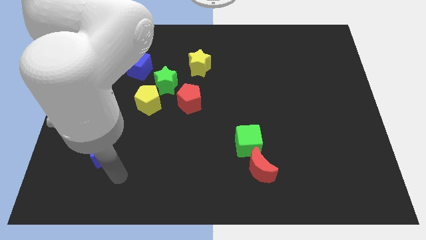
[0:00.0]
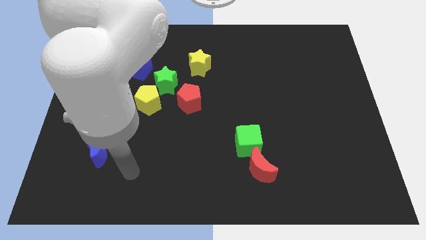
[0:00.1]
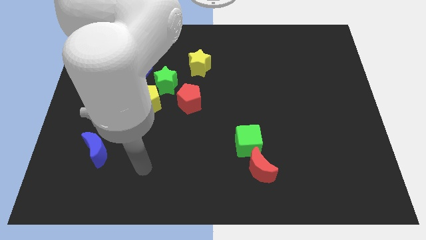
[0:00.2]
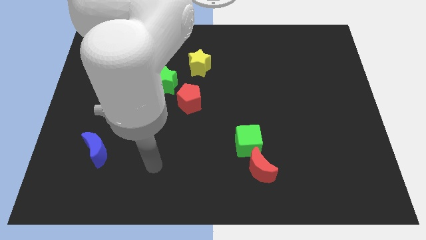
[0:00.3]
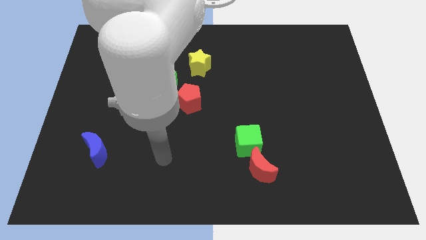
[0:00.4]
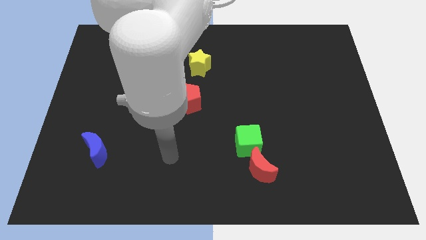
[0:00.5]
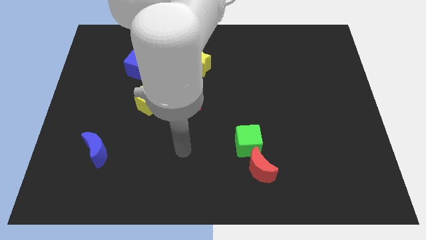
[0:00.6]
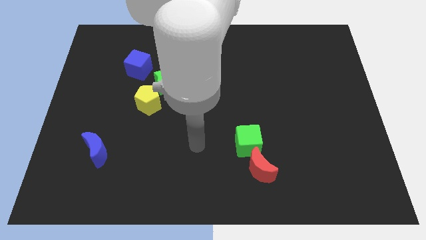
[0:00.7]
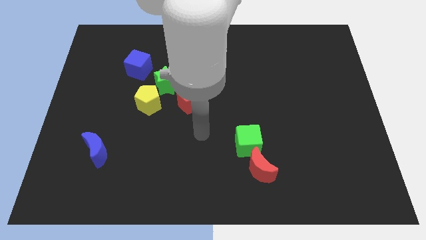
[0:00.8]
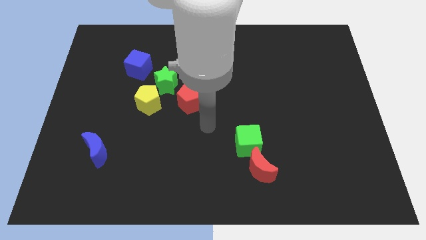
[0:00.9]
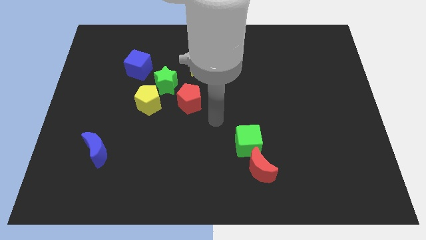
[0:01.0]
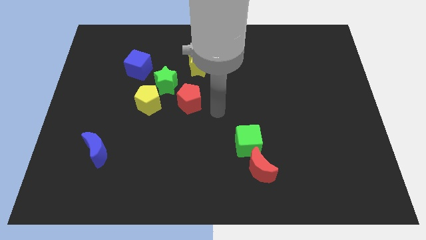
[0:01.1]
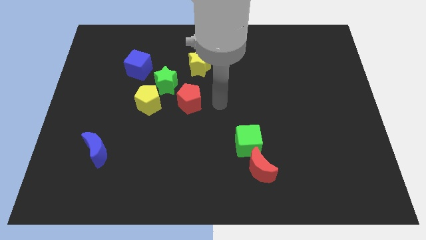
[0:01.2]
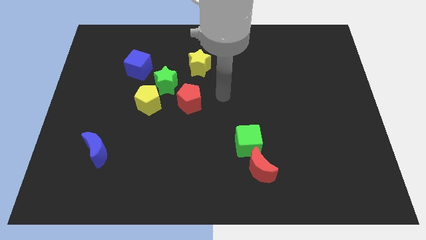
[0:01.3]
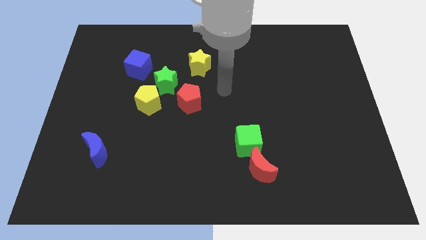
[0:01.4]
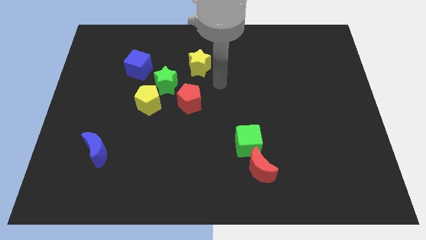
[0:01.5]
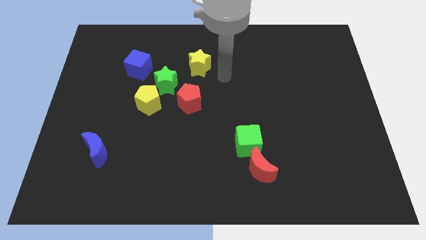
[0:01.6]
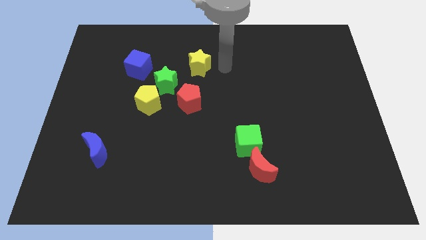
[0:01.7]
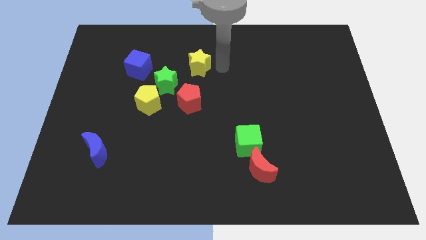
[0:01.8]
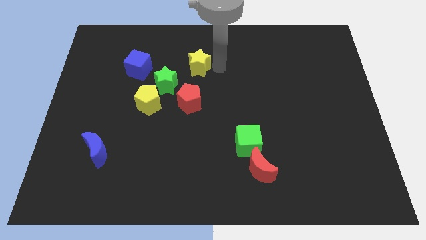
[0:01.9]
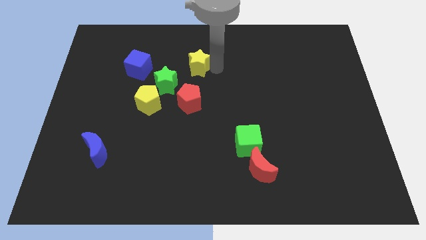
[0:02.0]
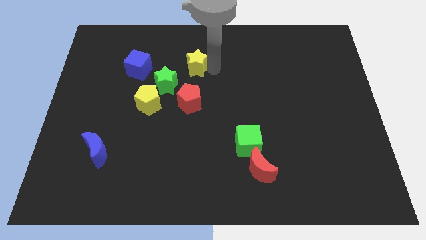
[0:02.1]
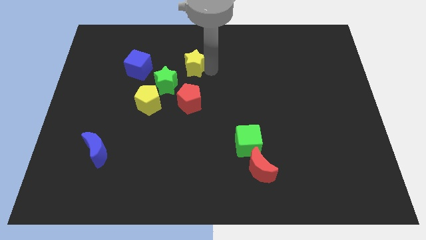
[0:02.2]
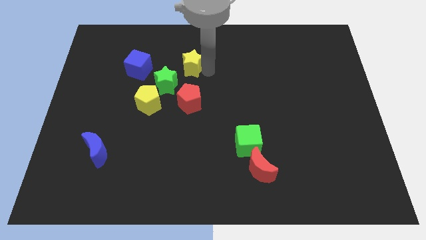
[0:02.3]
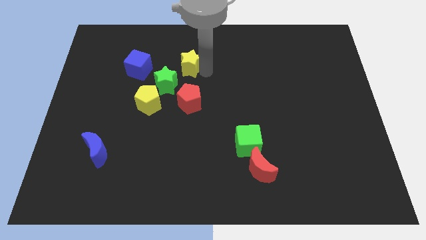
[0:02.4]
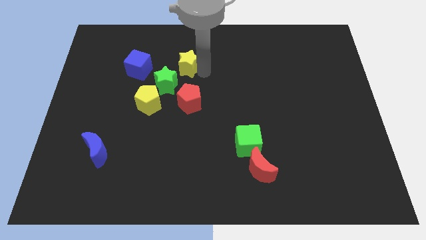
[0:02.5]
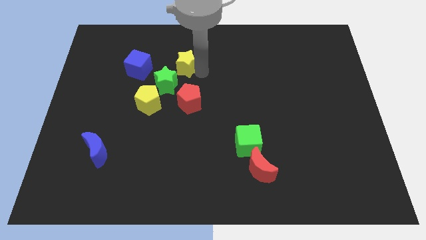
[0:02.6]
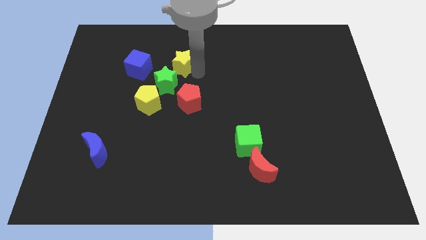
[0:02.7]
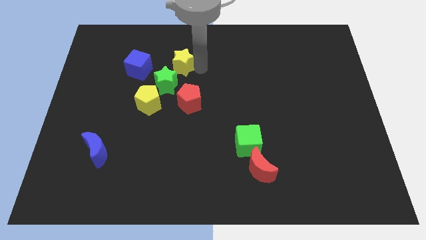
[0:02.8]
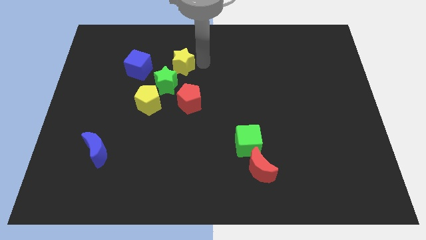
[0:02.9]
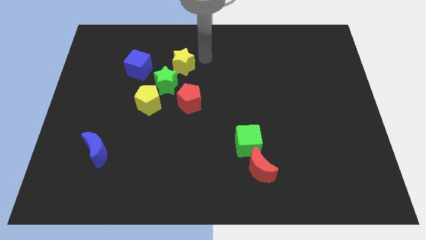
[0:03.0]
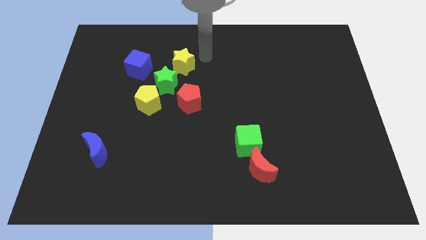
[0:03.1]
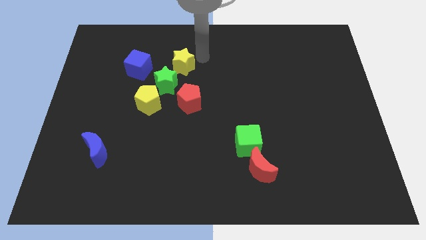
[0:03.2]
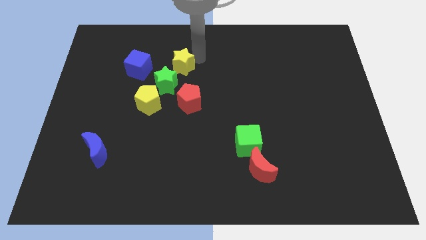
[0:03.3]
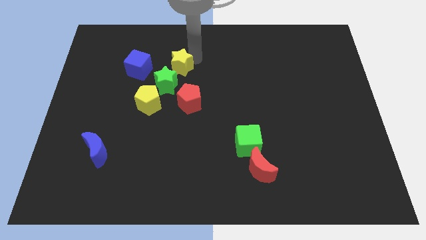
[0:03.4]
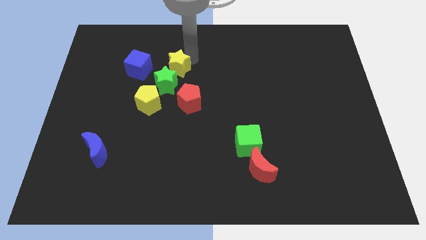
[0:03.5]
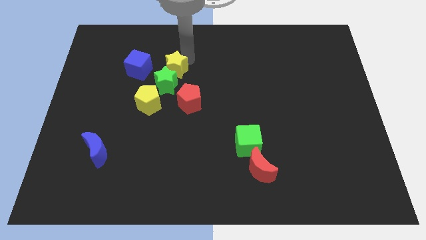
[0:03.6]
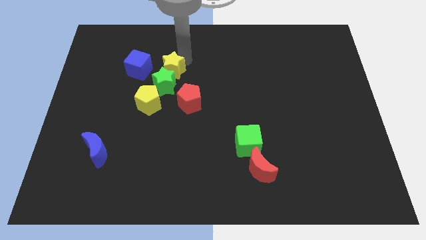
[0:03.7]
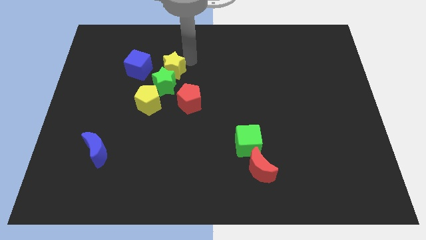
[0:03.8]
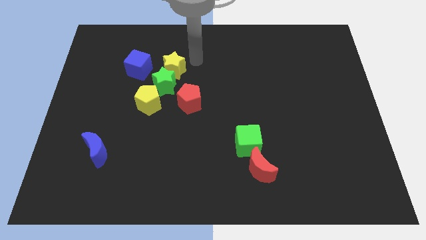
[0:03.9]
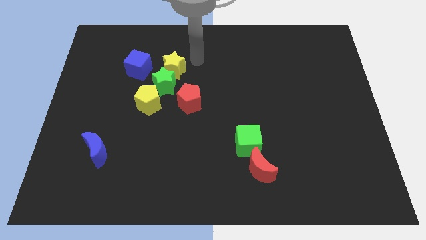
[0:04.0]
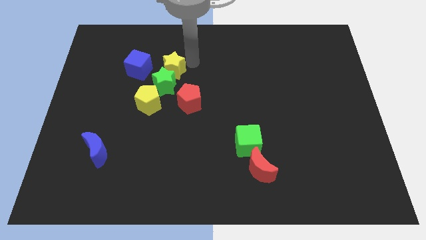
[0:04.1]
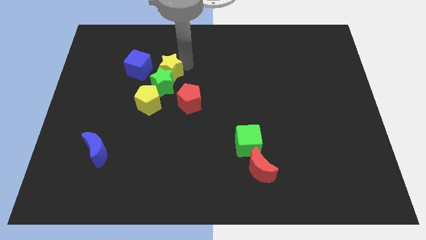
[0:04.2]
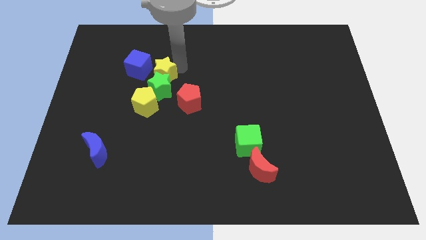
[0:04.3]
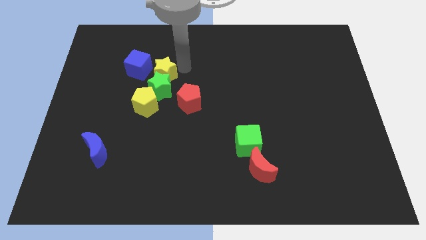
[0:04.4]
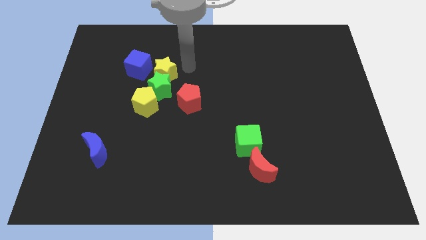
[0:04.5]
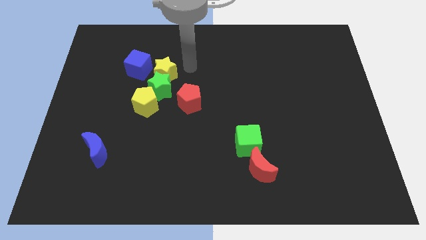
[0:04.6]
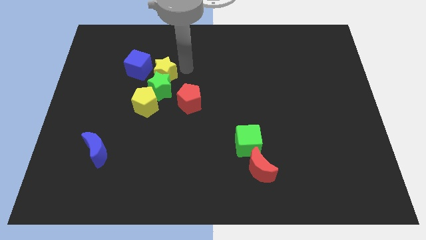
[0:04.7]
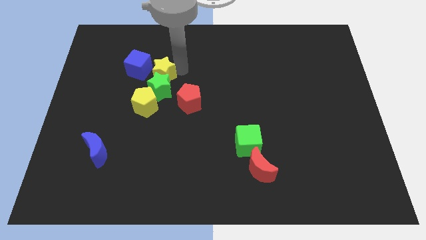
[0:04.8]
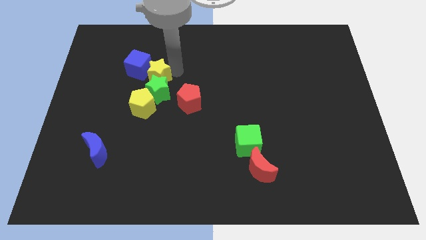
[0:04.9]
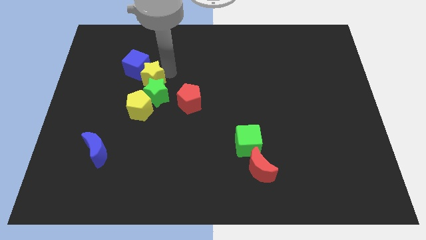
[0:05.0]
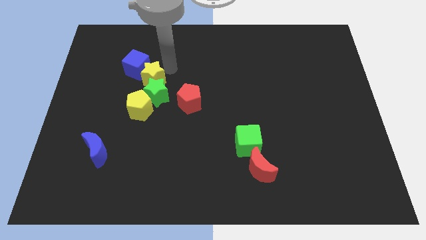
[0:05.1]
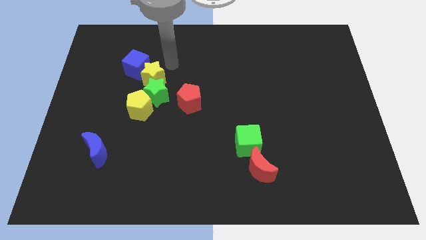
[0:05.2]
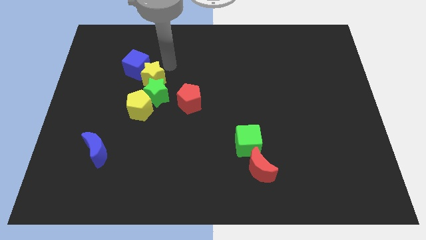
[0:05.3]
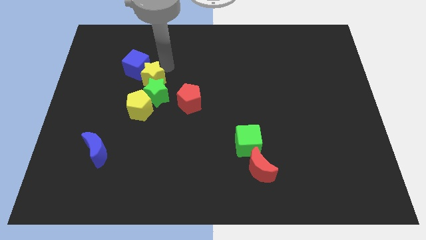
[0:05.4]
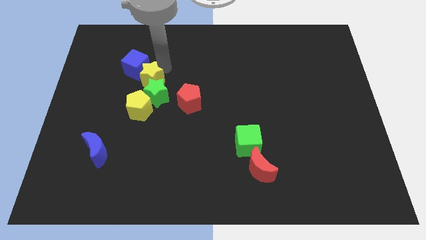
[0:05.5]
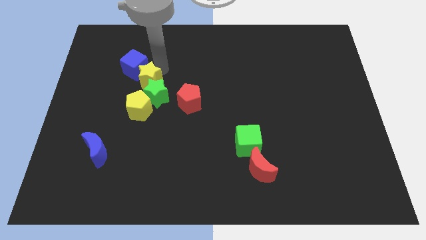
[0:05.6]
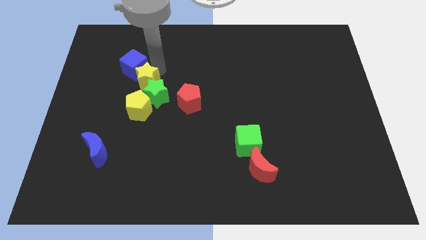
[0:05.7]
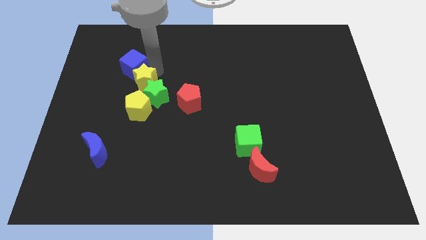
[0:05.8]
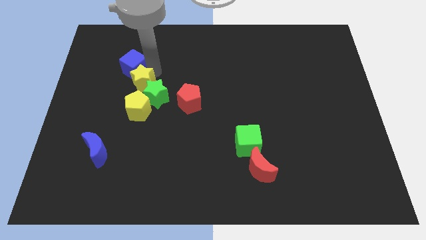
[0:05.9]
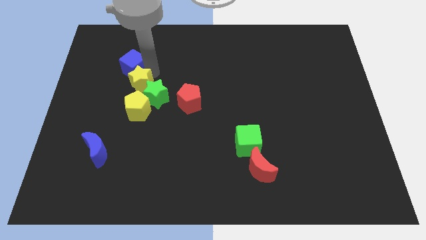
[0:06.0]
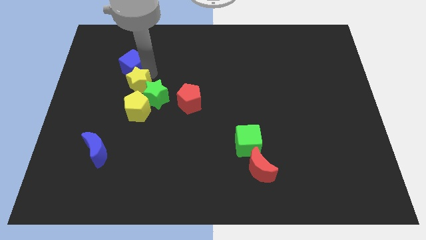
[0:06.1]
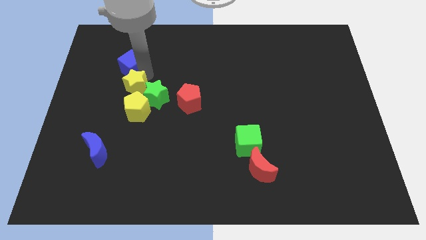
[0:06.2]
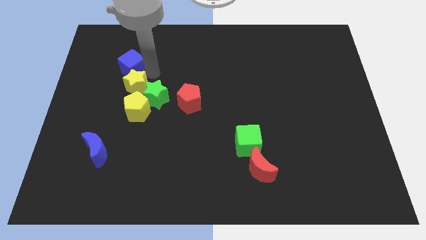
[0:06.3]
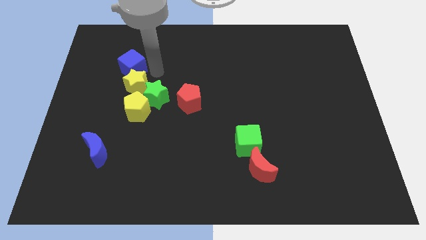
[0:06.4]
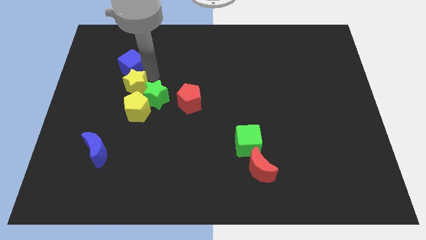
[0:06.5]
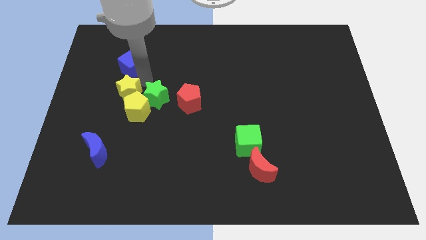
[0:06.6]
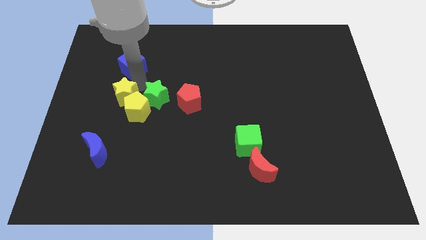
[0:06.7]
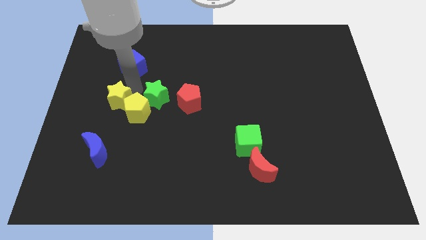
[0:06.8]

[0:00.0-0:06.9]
push the yellow star to the top side of the blue moon
